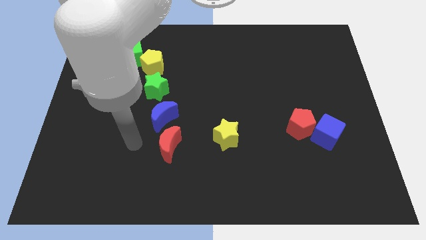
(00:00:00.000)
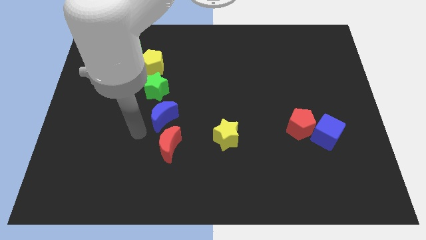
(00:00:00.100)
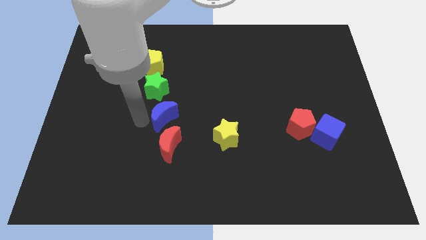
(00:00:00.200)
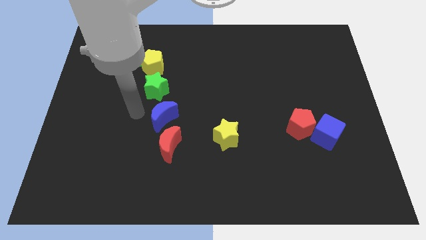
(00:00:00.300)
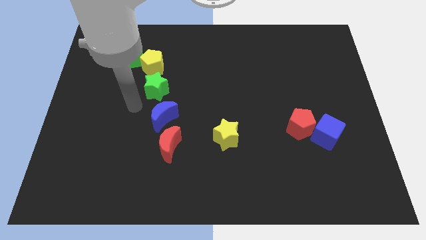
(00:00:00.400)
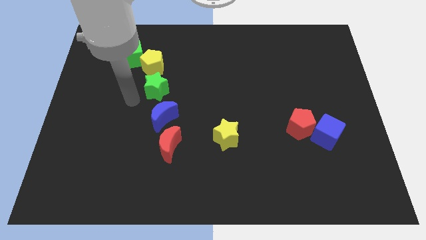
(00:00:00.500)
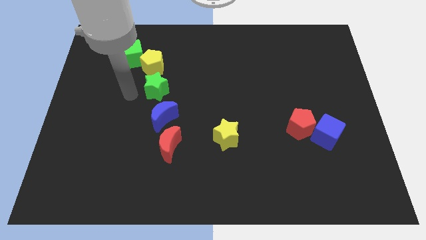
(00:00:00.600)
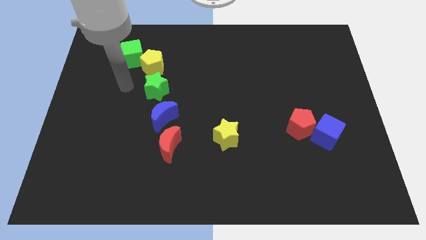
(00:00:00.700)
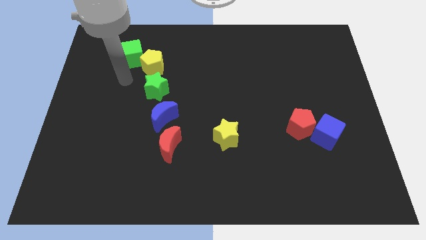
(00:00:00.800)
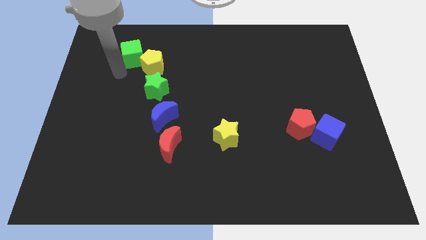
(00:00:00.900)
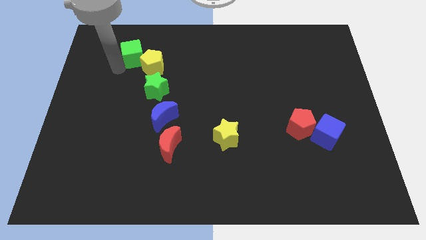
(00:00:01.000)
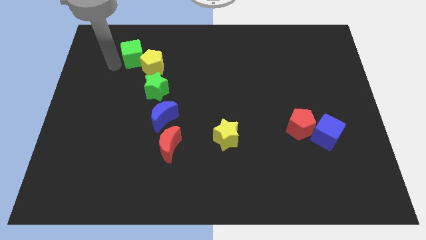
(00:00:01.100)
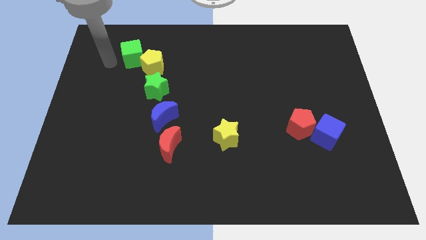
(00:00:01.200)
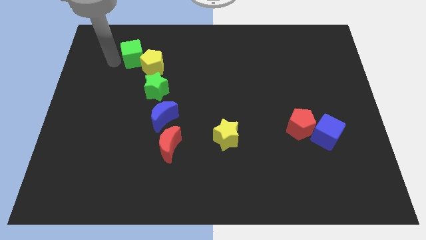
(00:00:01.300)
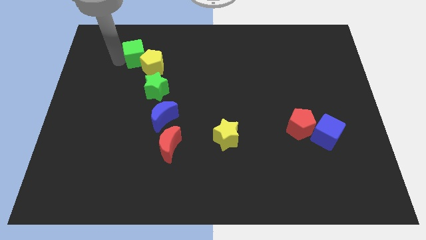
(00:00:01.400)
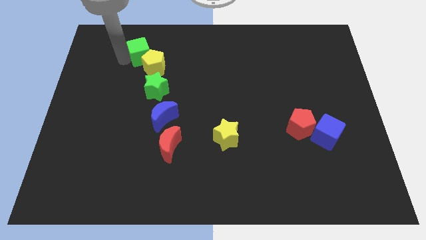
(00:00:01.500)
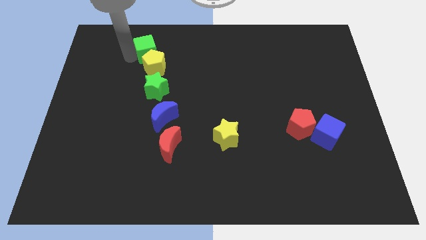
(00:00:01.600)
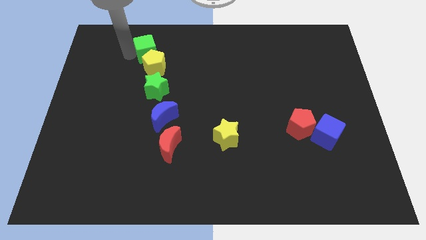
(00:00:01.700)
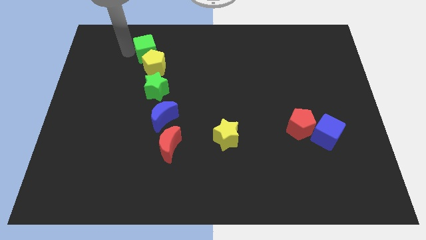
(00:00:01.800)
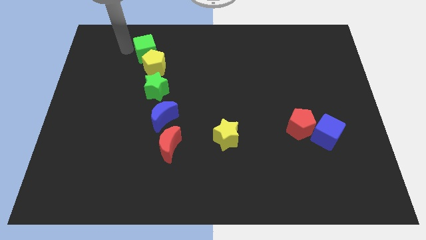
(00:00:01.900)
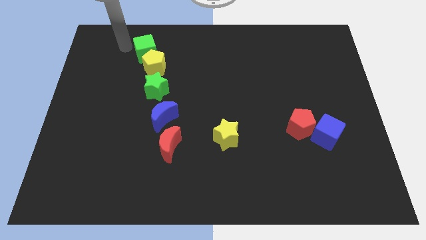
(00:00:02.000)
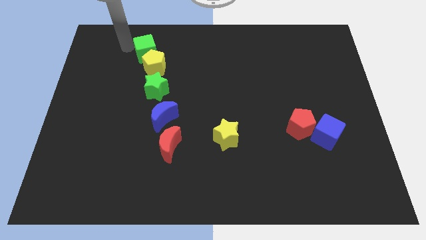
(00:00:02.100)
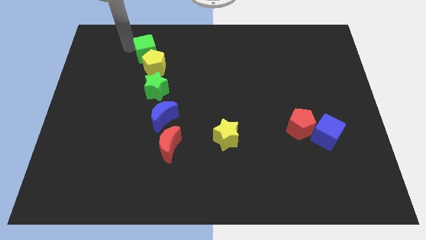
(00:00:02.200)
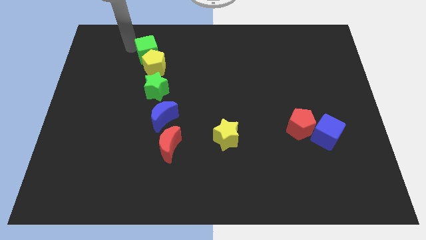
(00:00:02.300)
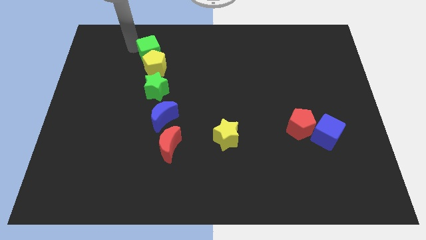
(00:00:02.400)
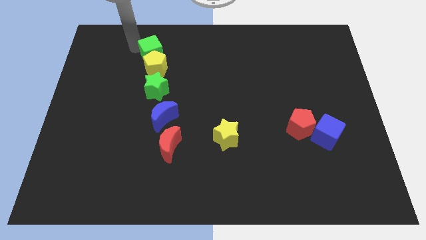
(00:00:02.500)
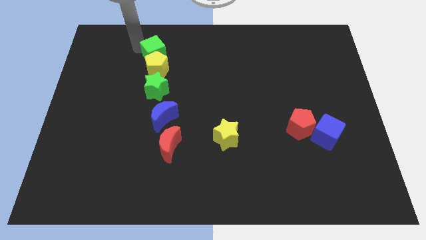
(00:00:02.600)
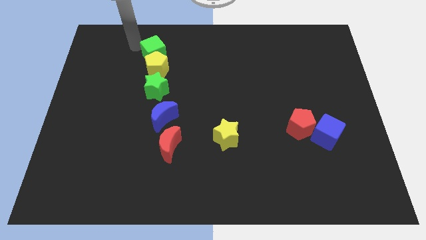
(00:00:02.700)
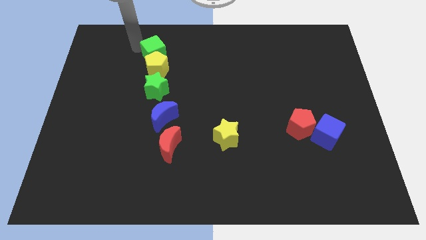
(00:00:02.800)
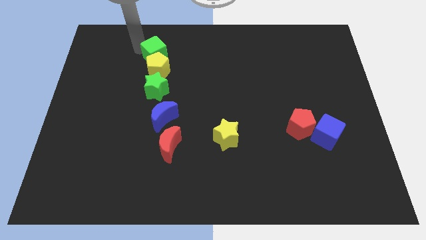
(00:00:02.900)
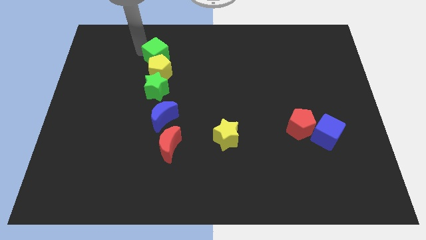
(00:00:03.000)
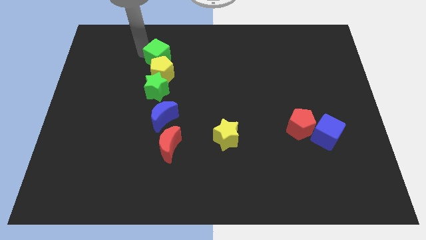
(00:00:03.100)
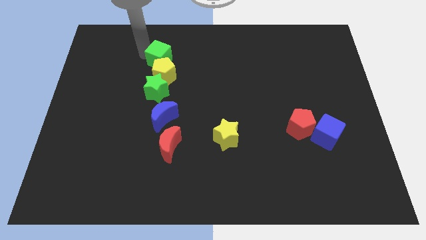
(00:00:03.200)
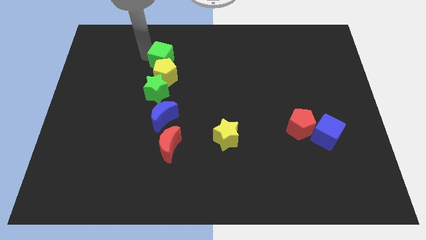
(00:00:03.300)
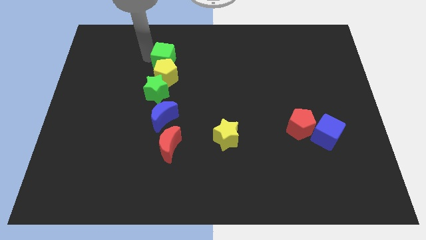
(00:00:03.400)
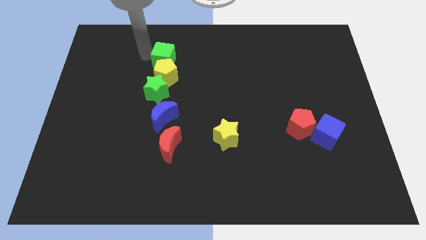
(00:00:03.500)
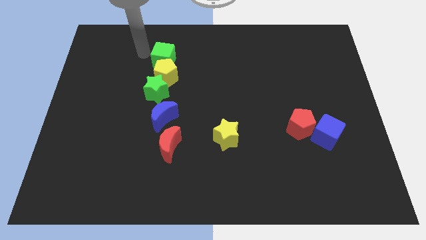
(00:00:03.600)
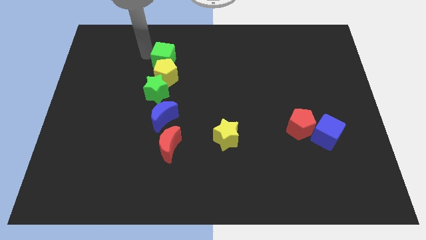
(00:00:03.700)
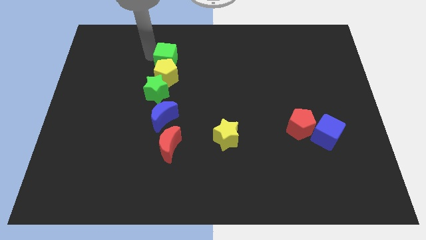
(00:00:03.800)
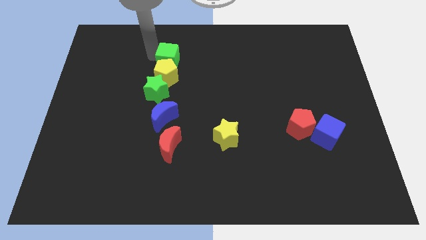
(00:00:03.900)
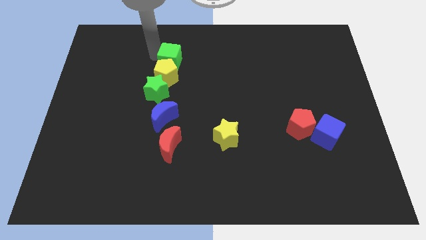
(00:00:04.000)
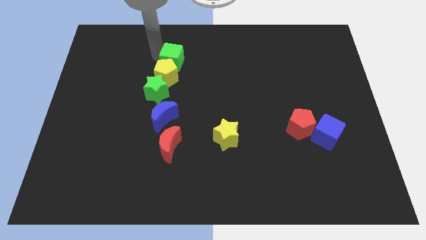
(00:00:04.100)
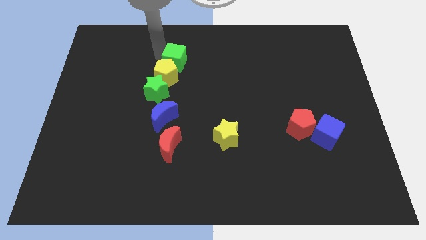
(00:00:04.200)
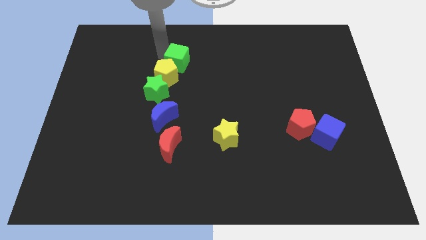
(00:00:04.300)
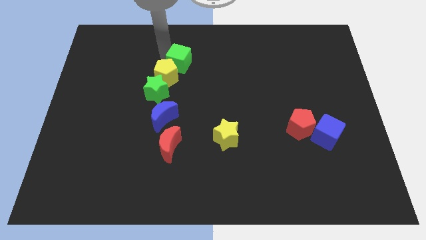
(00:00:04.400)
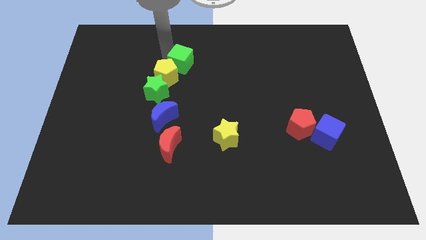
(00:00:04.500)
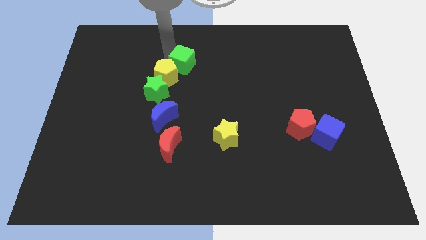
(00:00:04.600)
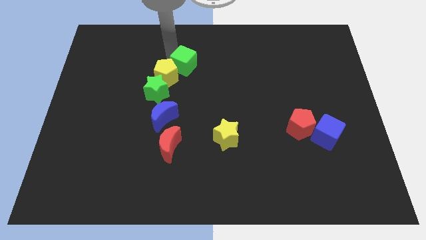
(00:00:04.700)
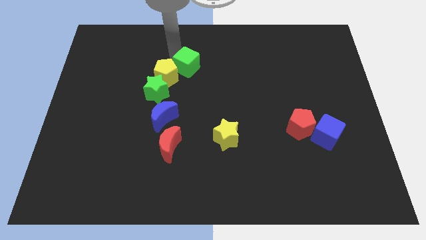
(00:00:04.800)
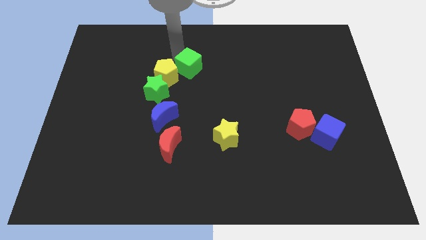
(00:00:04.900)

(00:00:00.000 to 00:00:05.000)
slide the green cube to the center

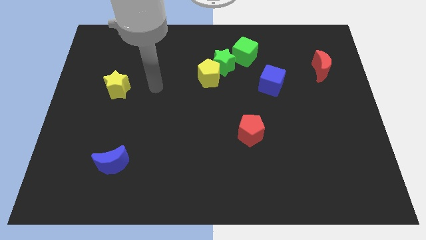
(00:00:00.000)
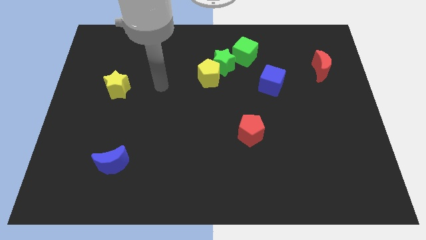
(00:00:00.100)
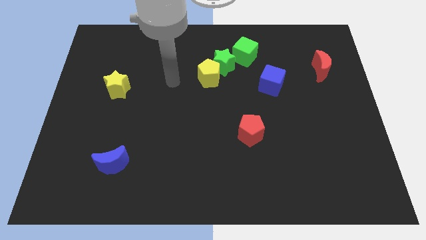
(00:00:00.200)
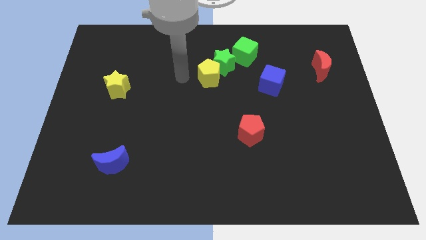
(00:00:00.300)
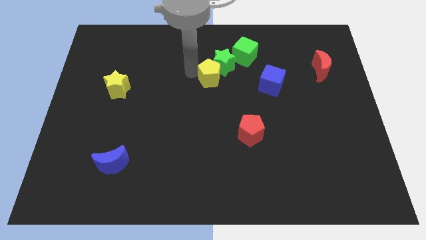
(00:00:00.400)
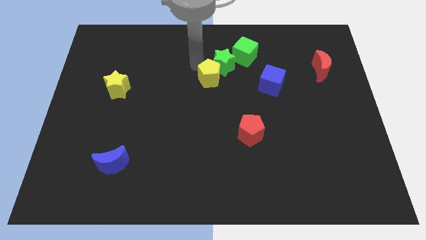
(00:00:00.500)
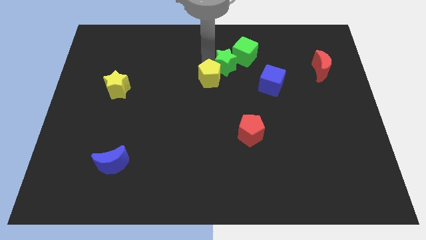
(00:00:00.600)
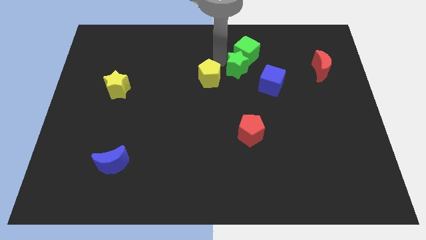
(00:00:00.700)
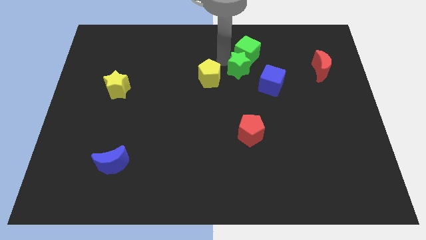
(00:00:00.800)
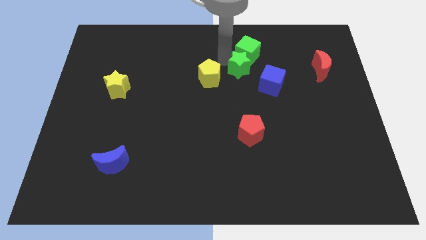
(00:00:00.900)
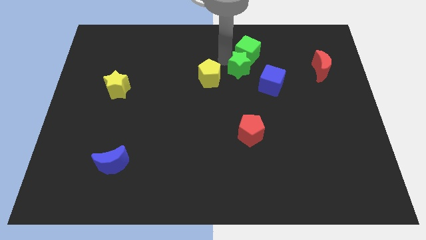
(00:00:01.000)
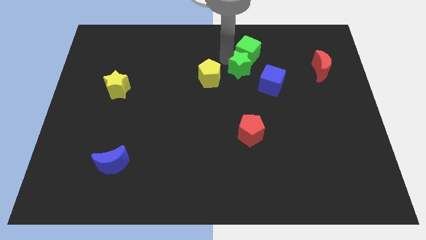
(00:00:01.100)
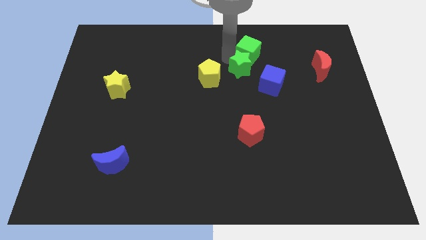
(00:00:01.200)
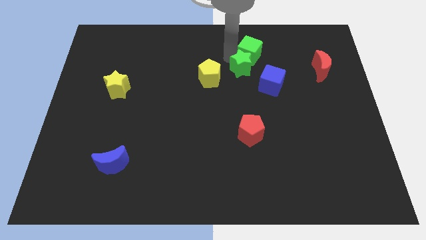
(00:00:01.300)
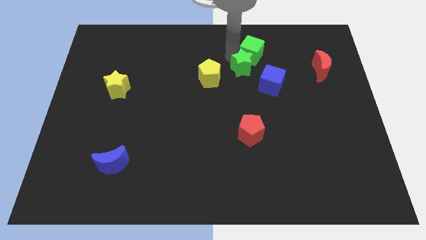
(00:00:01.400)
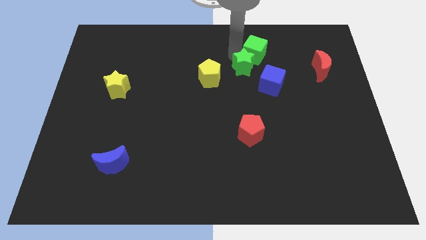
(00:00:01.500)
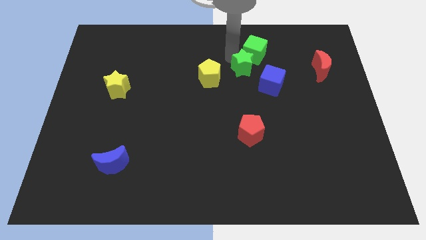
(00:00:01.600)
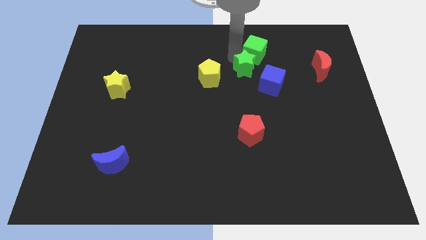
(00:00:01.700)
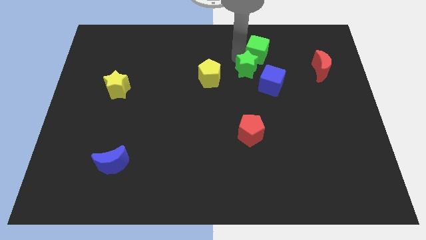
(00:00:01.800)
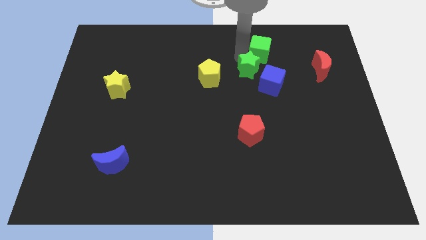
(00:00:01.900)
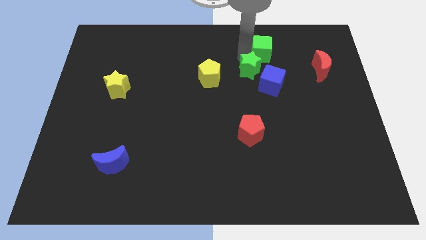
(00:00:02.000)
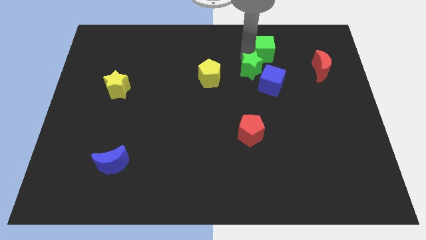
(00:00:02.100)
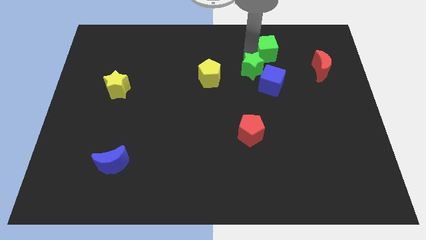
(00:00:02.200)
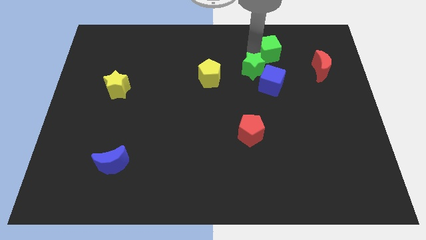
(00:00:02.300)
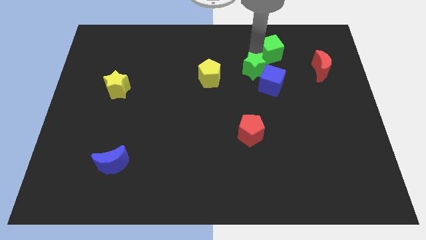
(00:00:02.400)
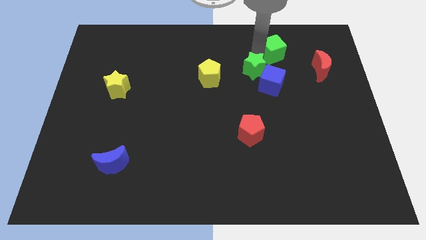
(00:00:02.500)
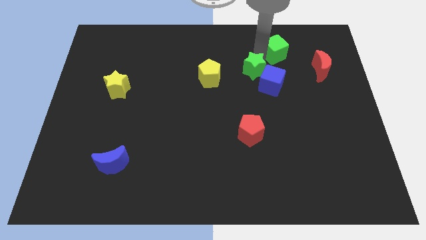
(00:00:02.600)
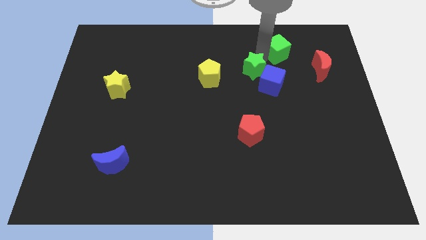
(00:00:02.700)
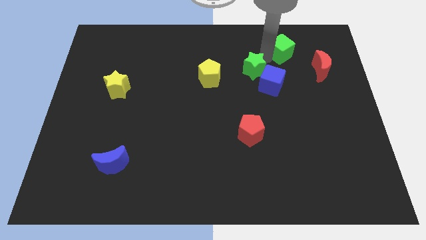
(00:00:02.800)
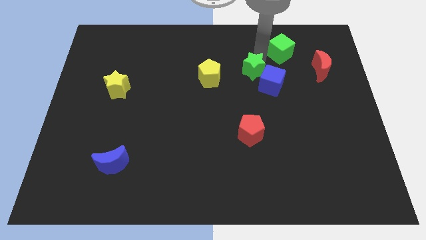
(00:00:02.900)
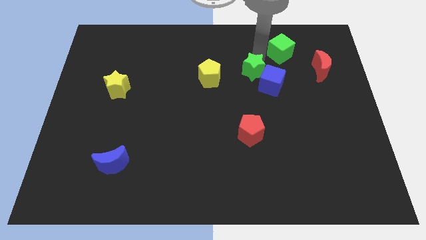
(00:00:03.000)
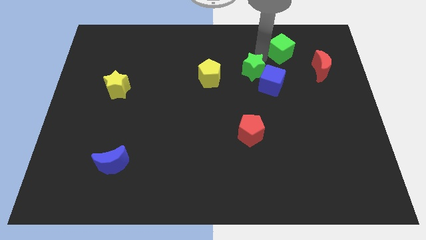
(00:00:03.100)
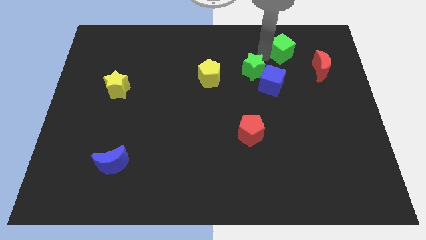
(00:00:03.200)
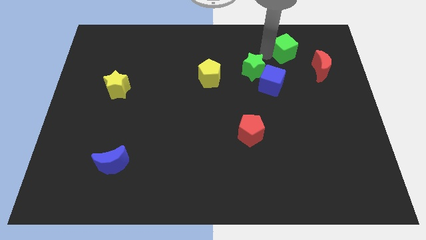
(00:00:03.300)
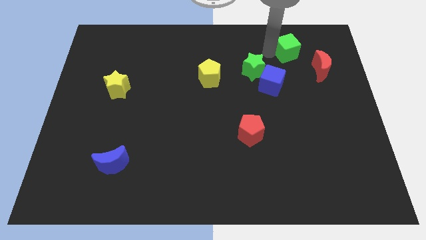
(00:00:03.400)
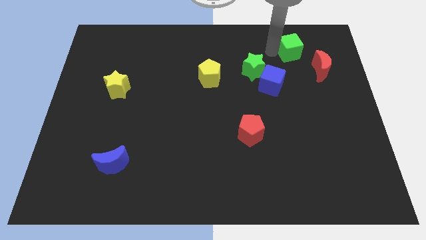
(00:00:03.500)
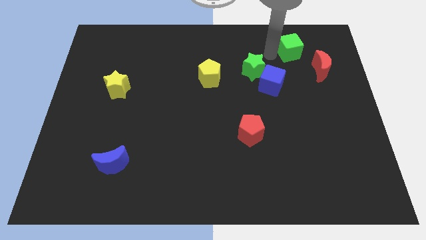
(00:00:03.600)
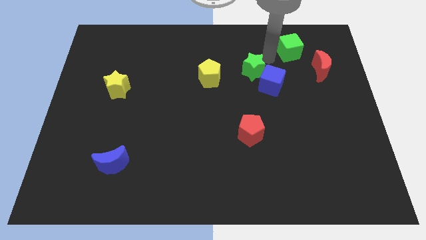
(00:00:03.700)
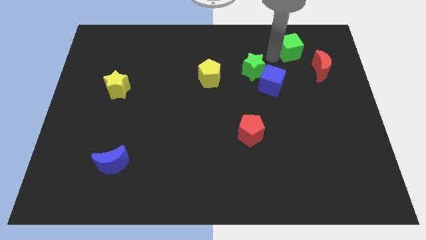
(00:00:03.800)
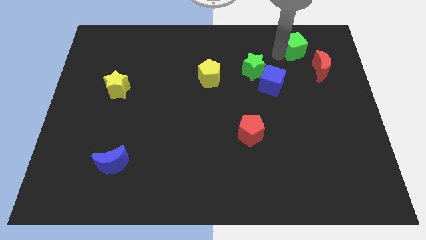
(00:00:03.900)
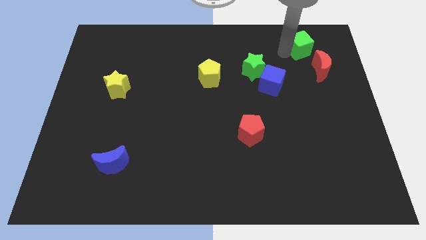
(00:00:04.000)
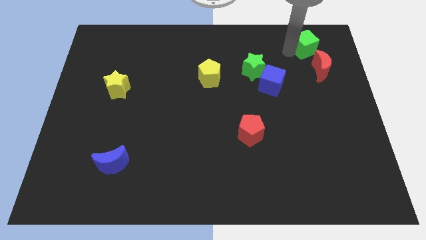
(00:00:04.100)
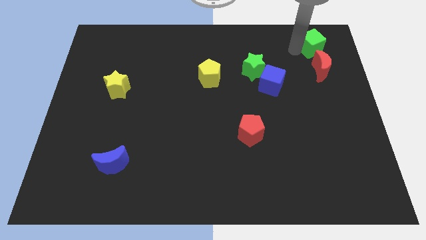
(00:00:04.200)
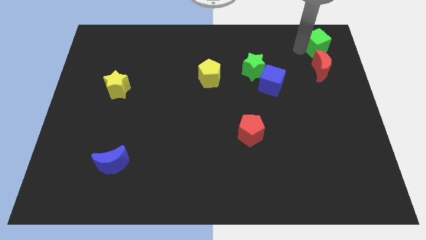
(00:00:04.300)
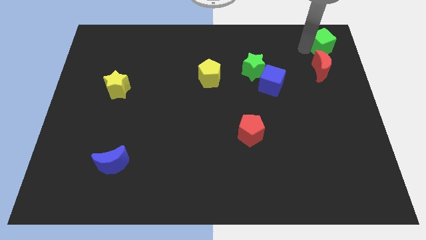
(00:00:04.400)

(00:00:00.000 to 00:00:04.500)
push the green cube to the upper right corner
